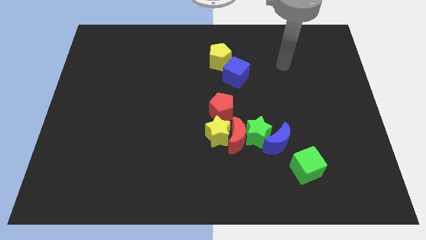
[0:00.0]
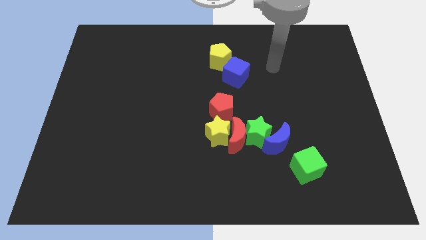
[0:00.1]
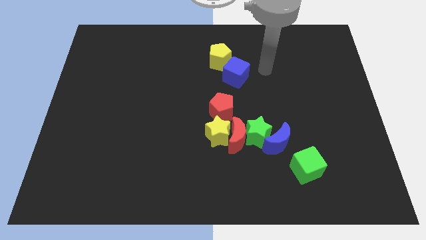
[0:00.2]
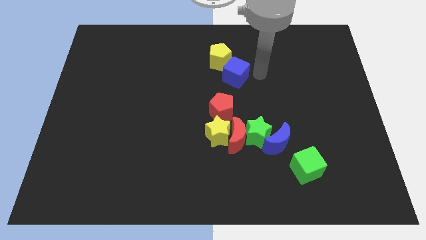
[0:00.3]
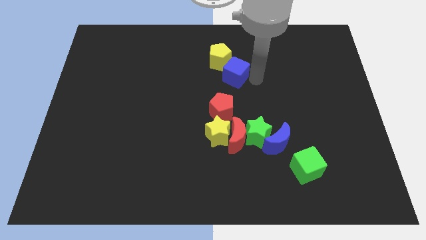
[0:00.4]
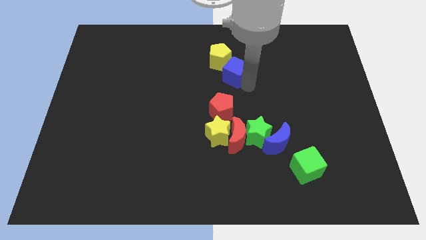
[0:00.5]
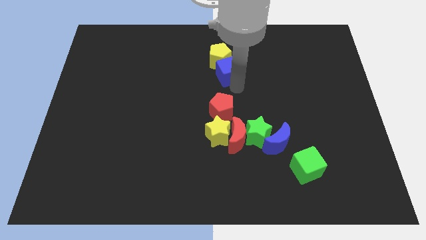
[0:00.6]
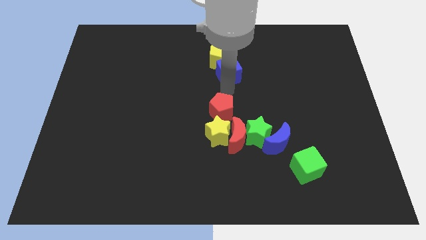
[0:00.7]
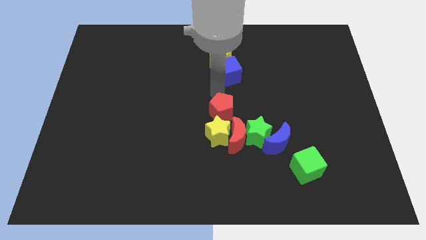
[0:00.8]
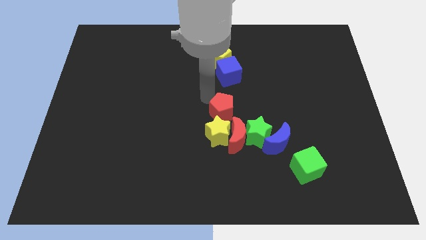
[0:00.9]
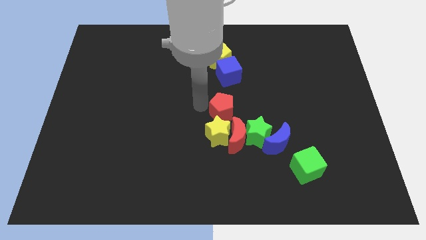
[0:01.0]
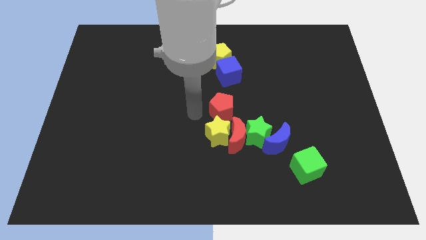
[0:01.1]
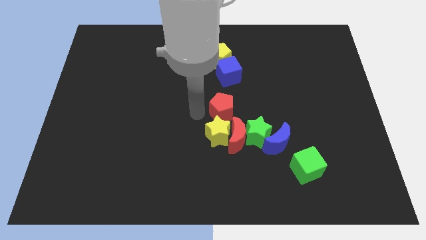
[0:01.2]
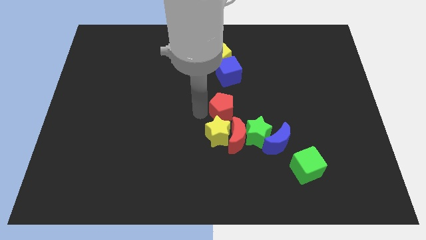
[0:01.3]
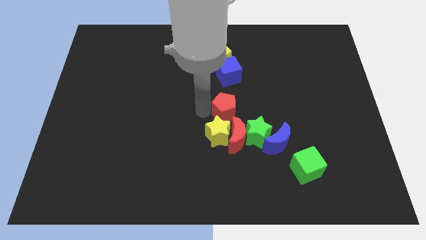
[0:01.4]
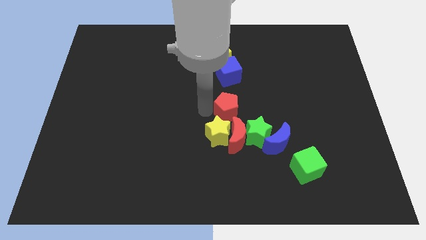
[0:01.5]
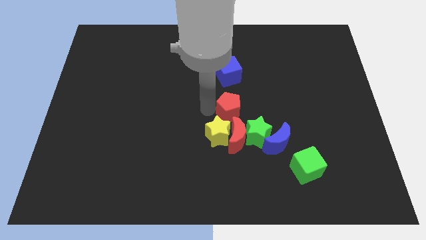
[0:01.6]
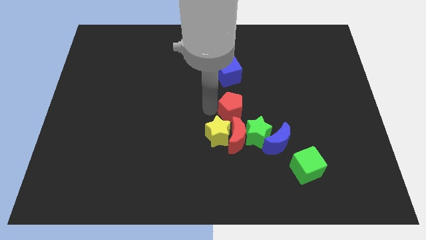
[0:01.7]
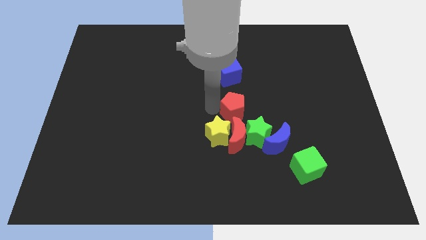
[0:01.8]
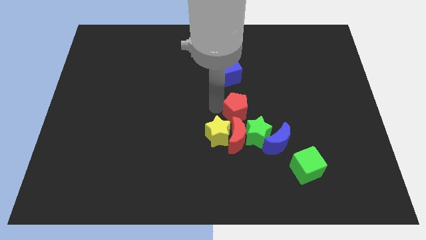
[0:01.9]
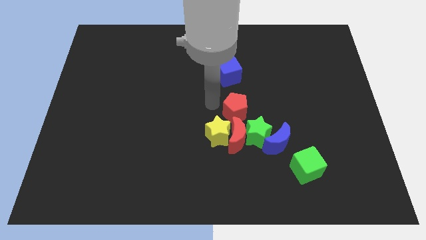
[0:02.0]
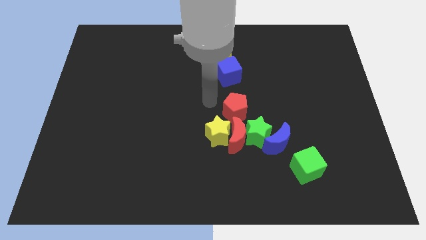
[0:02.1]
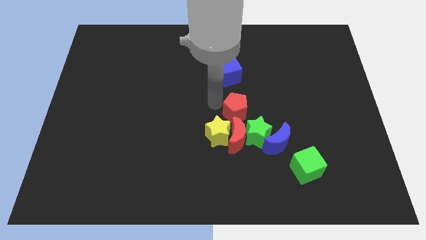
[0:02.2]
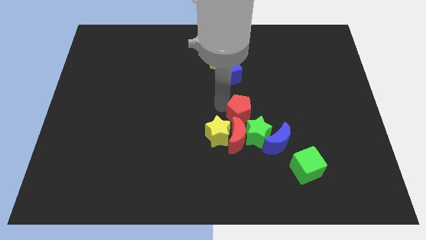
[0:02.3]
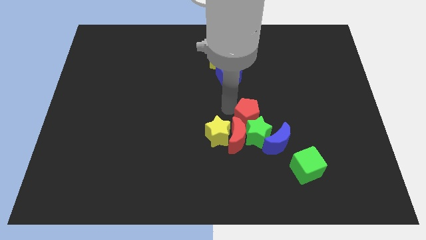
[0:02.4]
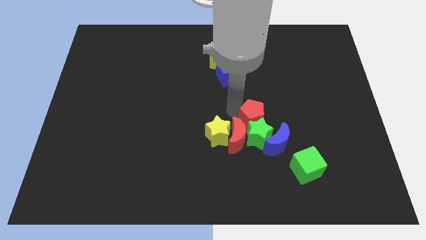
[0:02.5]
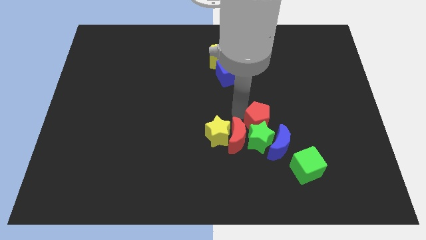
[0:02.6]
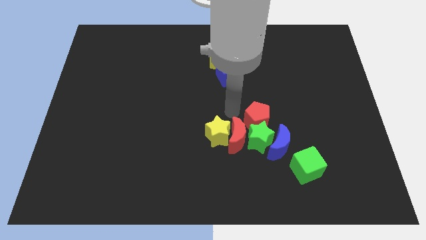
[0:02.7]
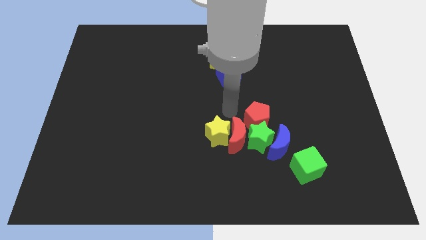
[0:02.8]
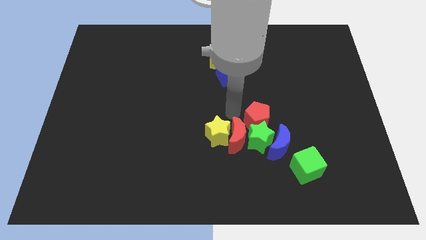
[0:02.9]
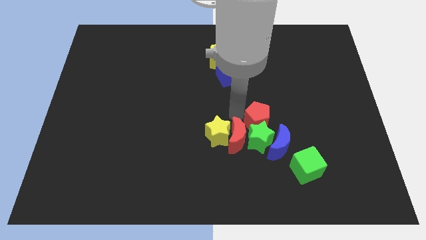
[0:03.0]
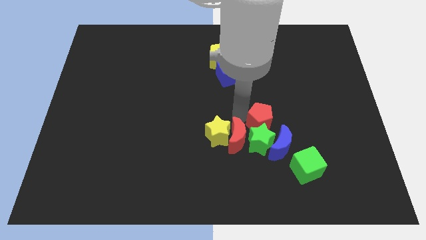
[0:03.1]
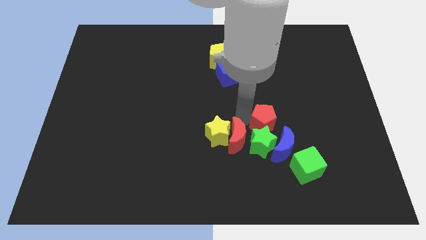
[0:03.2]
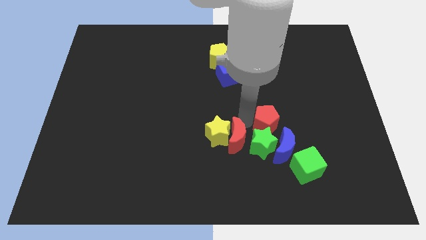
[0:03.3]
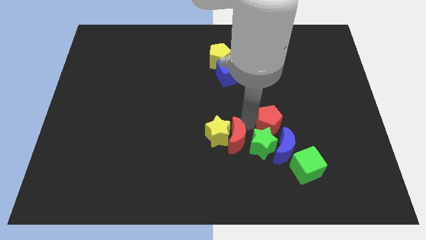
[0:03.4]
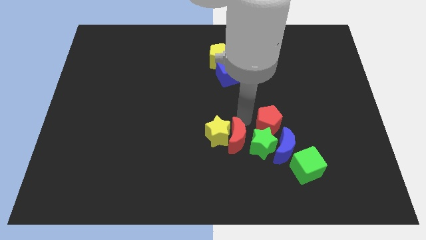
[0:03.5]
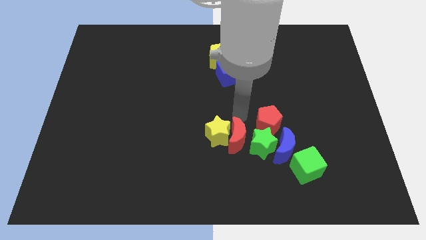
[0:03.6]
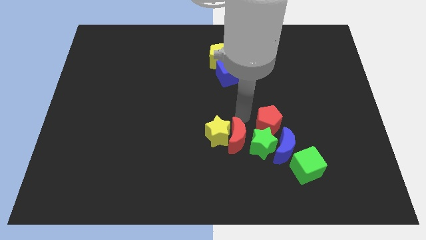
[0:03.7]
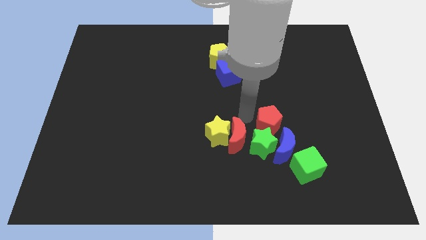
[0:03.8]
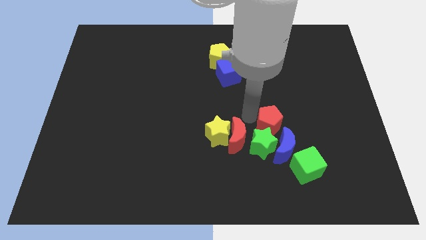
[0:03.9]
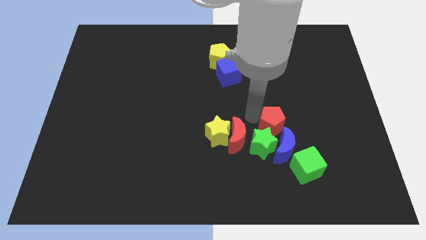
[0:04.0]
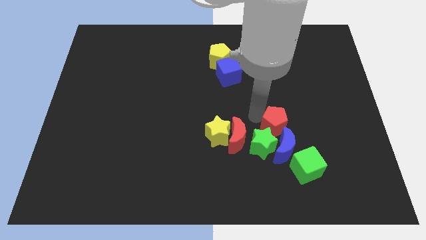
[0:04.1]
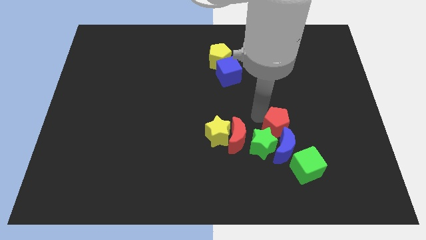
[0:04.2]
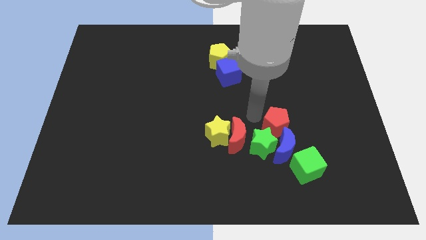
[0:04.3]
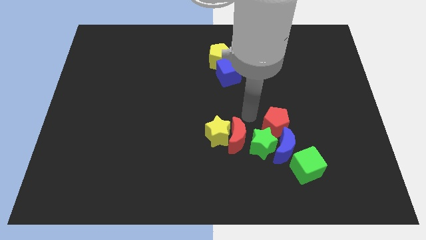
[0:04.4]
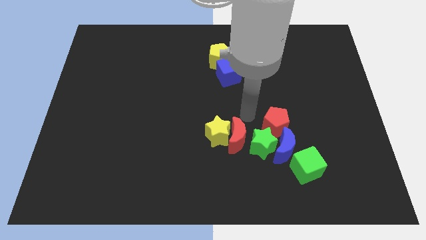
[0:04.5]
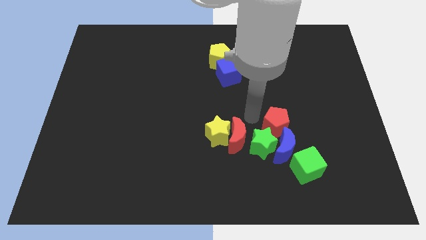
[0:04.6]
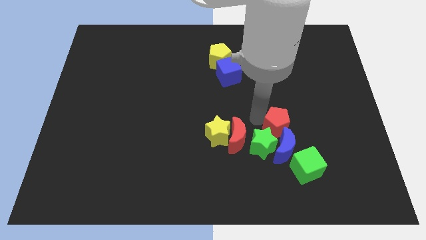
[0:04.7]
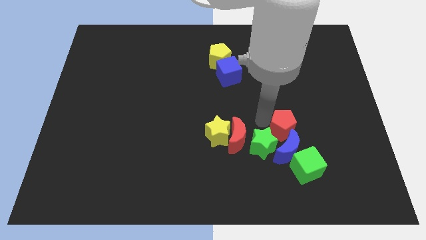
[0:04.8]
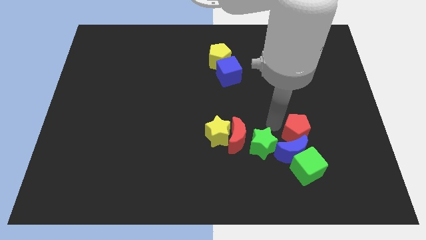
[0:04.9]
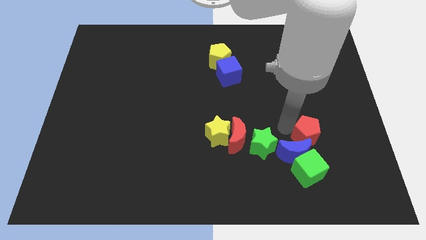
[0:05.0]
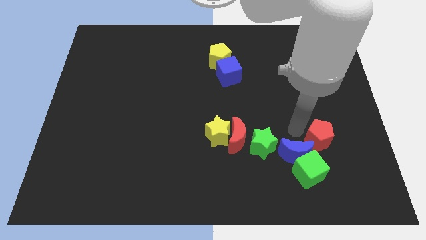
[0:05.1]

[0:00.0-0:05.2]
move the red pentagon just right of the blue moon

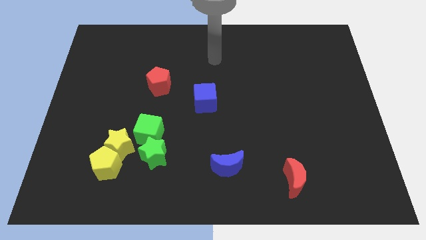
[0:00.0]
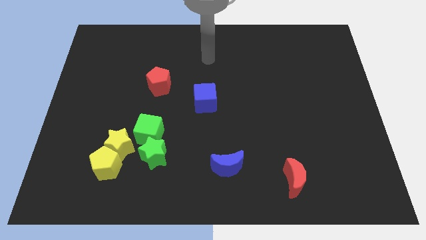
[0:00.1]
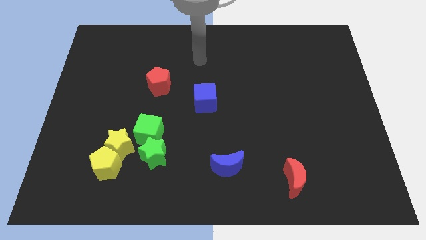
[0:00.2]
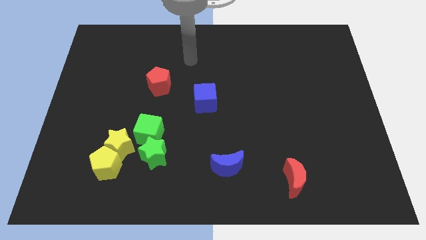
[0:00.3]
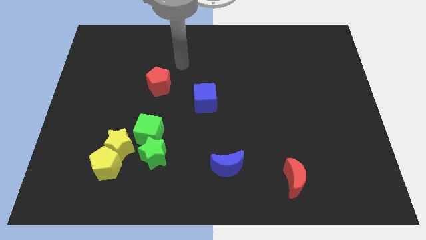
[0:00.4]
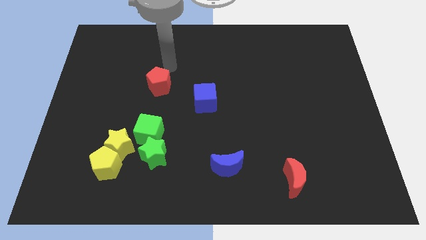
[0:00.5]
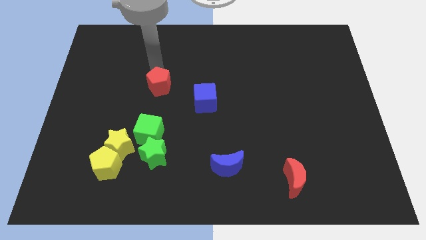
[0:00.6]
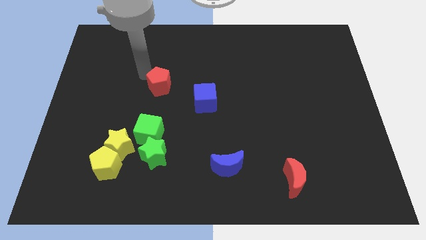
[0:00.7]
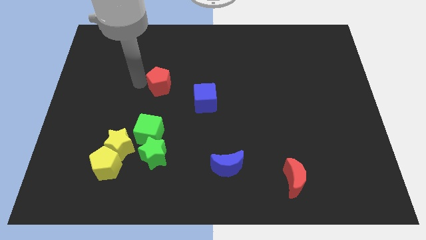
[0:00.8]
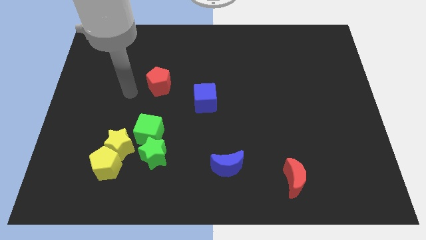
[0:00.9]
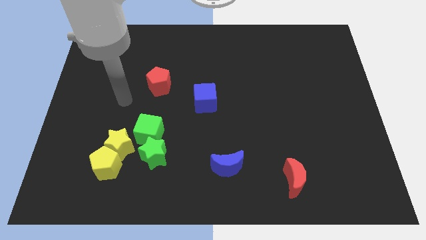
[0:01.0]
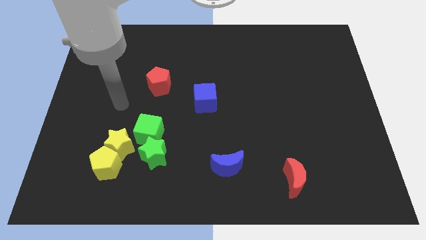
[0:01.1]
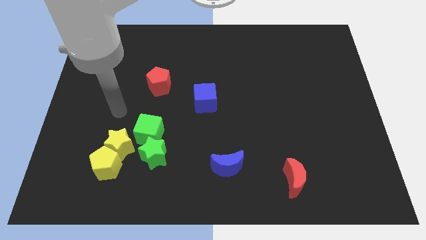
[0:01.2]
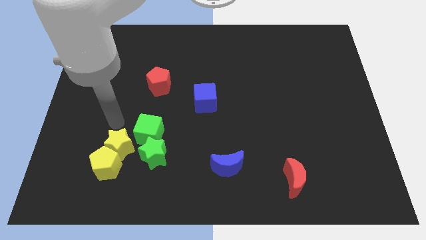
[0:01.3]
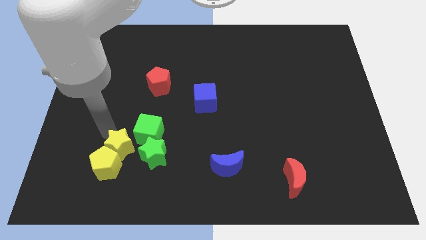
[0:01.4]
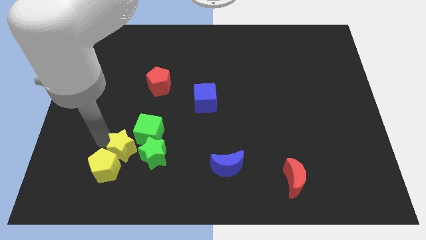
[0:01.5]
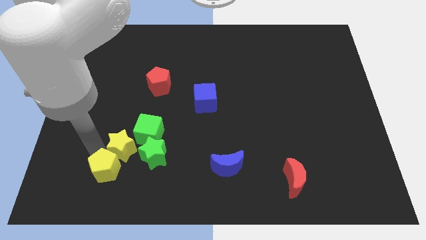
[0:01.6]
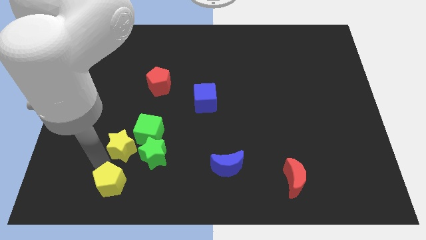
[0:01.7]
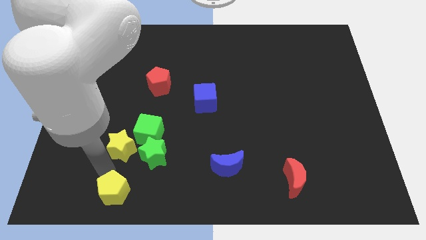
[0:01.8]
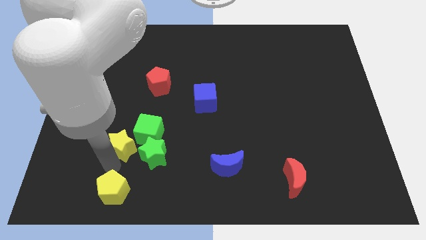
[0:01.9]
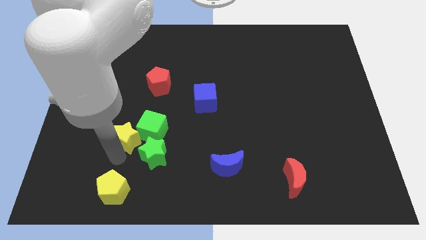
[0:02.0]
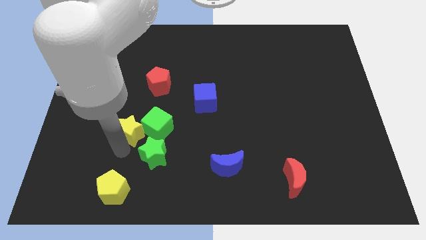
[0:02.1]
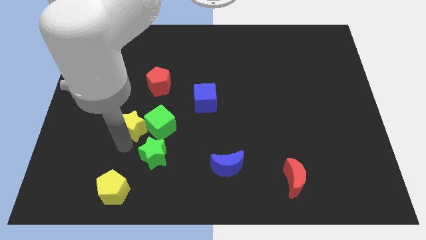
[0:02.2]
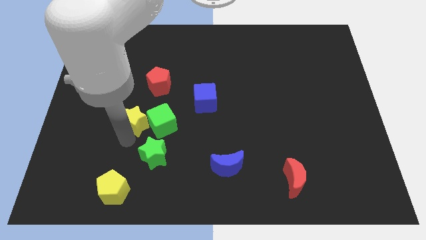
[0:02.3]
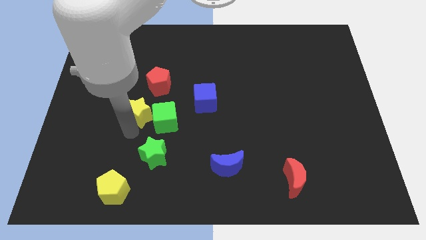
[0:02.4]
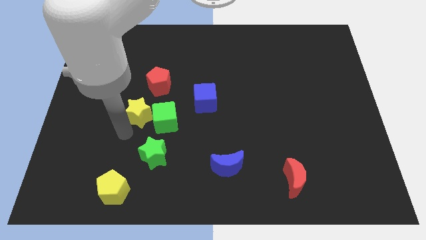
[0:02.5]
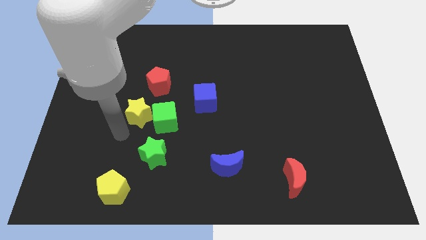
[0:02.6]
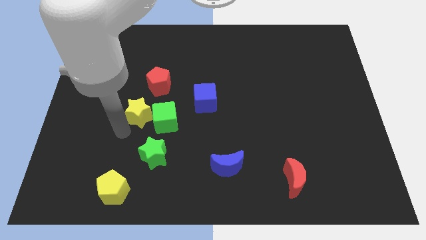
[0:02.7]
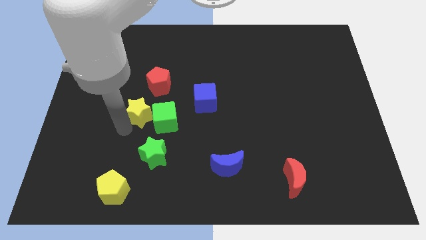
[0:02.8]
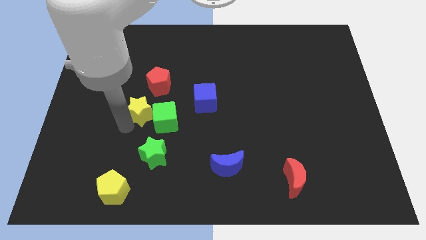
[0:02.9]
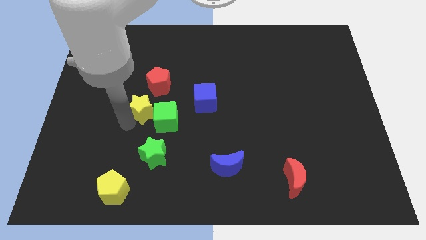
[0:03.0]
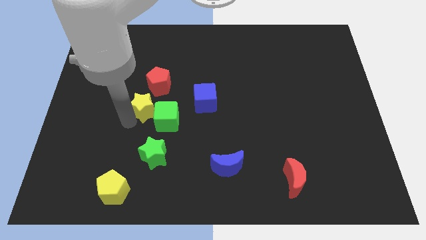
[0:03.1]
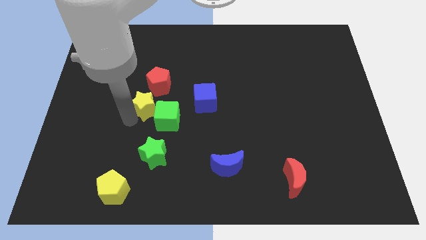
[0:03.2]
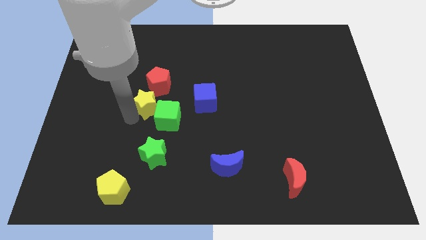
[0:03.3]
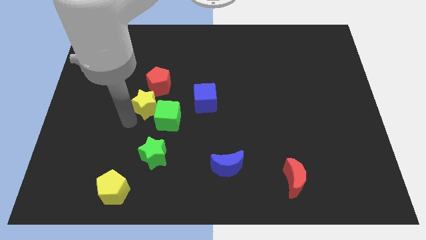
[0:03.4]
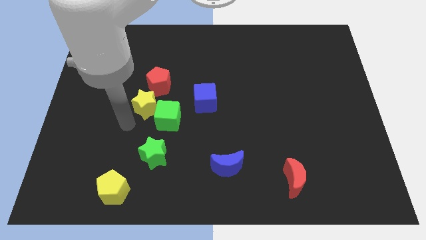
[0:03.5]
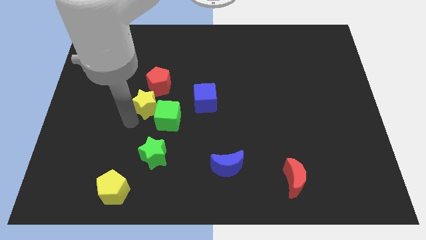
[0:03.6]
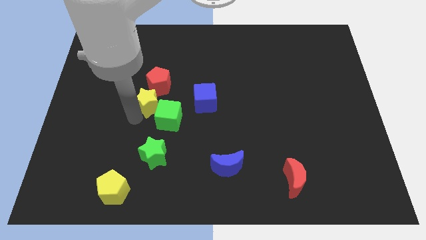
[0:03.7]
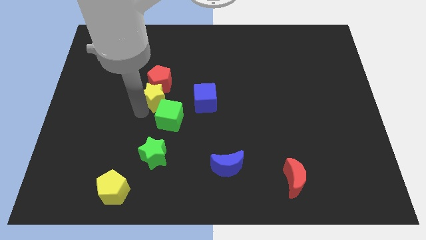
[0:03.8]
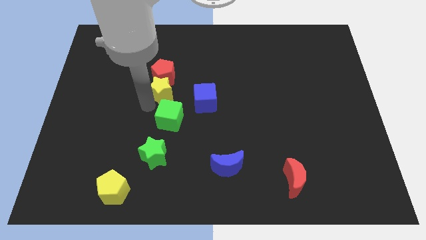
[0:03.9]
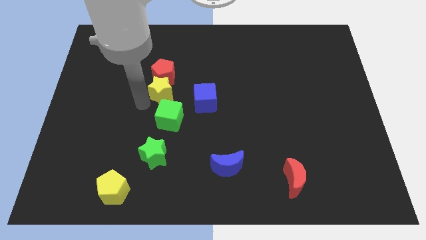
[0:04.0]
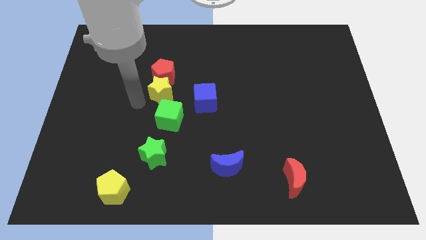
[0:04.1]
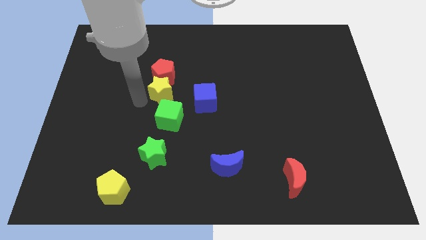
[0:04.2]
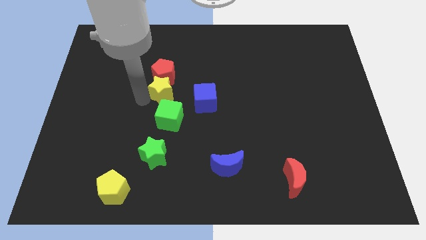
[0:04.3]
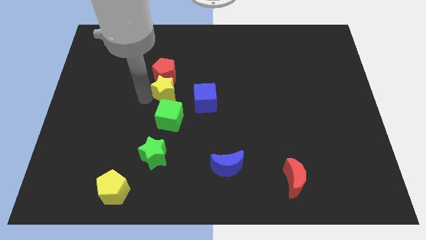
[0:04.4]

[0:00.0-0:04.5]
put the yellow star diagonally up and to the left of the blue cube
